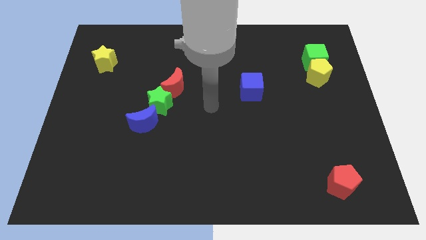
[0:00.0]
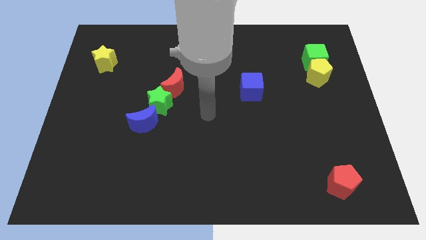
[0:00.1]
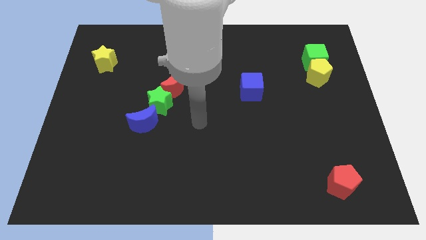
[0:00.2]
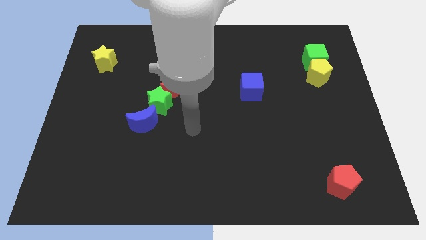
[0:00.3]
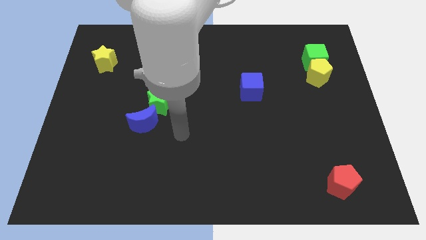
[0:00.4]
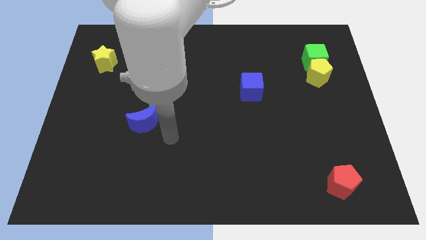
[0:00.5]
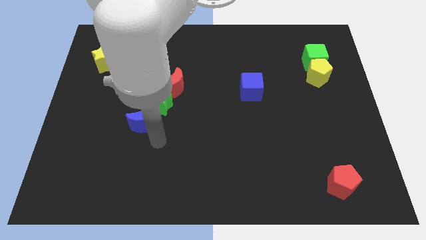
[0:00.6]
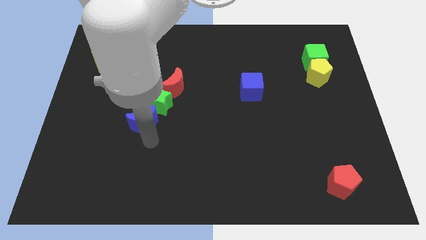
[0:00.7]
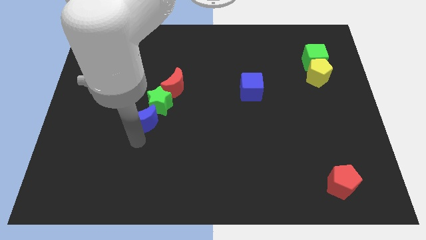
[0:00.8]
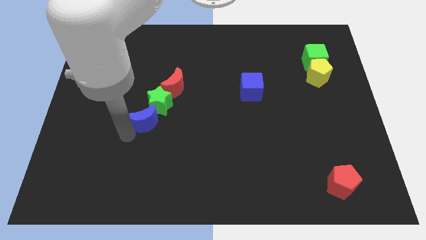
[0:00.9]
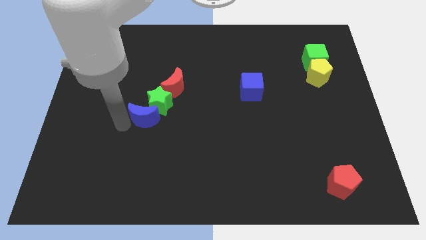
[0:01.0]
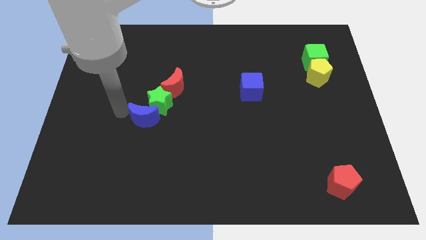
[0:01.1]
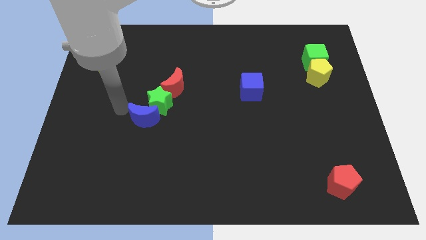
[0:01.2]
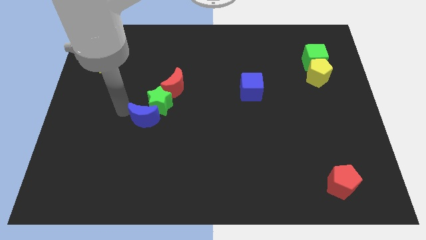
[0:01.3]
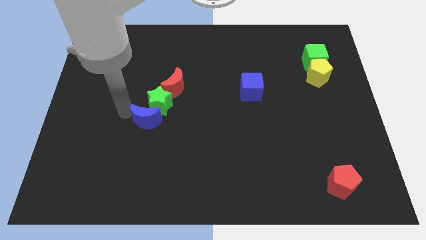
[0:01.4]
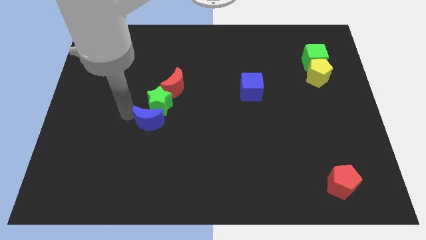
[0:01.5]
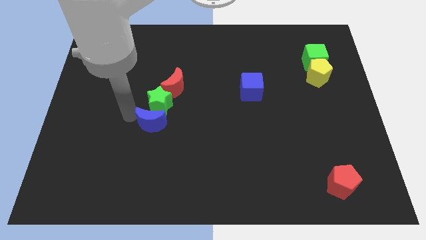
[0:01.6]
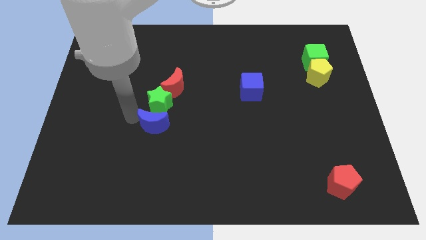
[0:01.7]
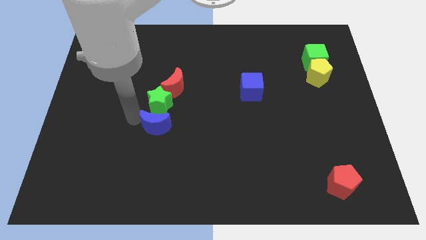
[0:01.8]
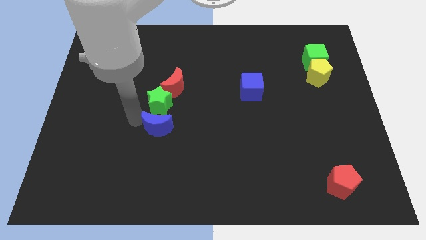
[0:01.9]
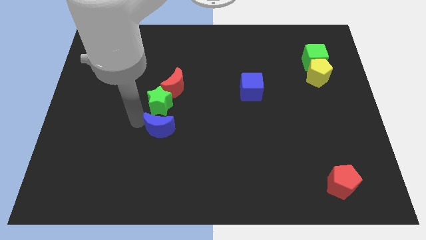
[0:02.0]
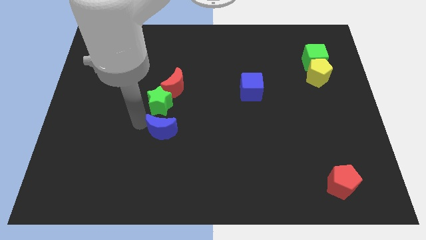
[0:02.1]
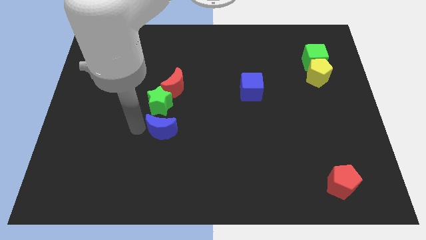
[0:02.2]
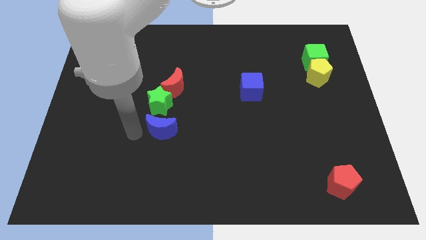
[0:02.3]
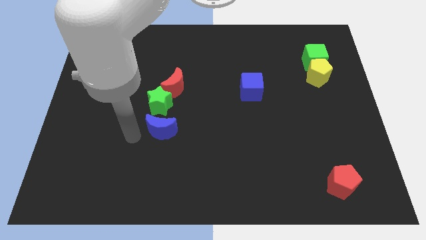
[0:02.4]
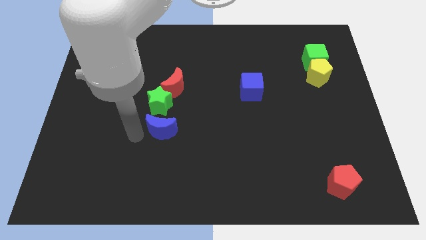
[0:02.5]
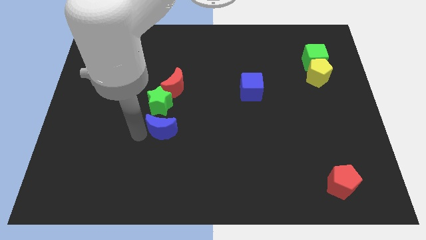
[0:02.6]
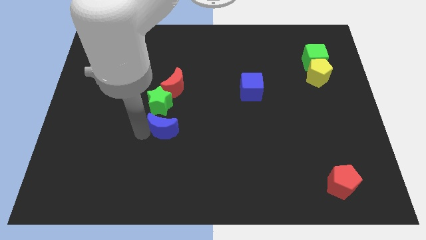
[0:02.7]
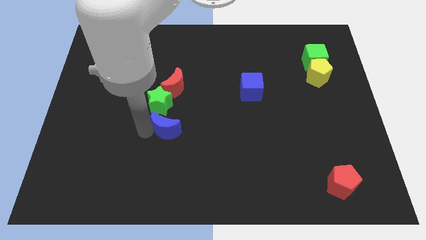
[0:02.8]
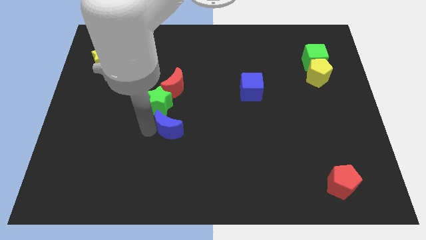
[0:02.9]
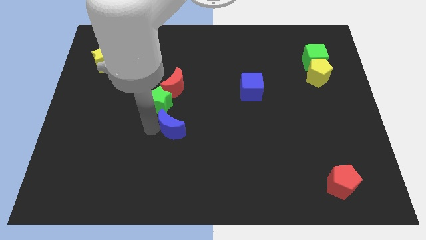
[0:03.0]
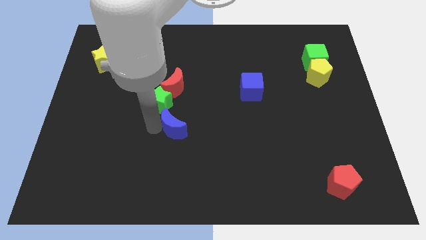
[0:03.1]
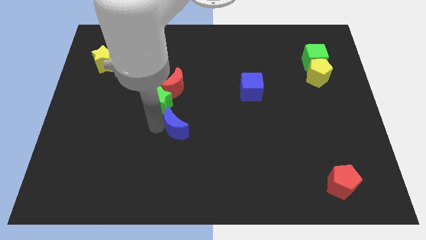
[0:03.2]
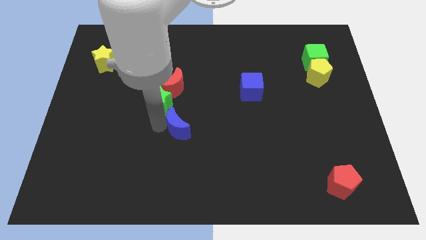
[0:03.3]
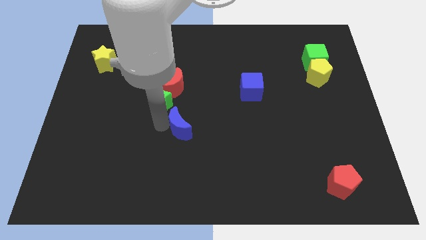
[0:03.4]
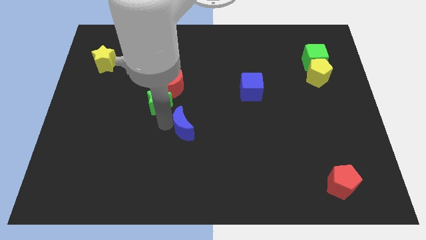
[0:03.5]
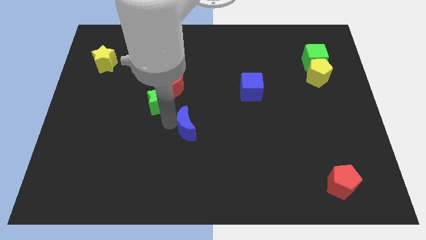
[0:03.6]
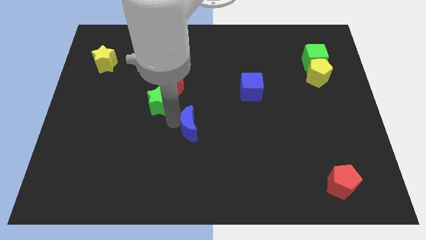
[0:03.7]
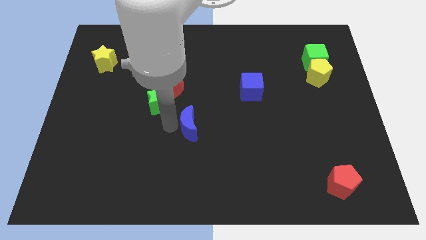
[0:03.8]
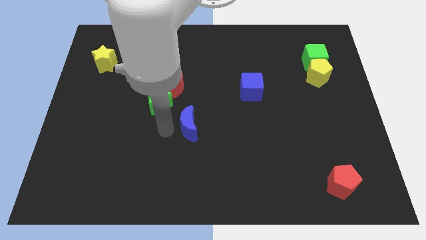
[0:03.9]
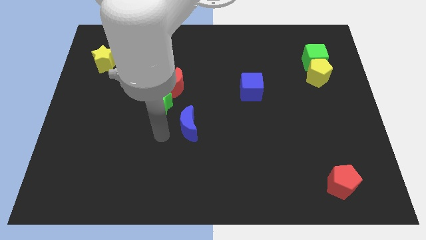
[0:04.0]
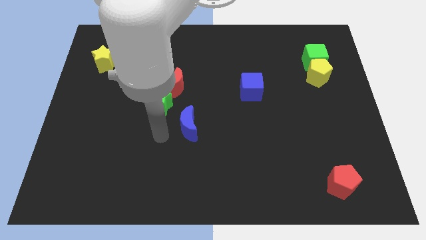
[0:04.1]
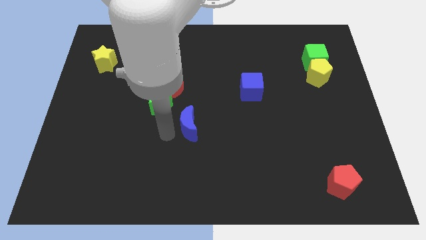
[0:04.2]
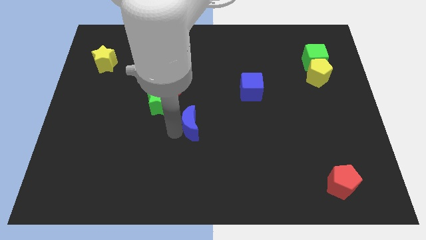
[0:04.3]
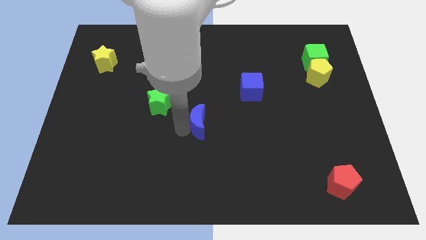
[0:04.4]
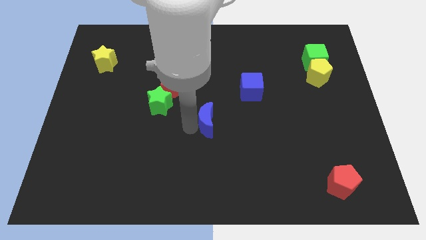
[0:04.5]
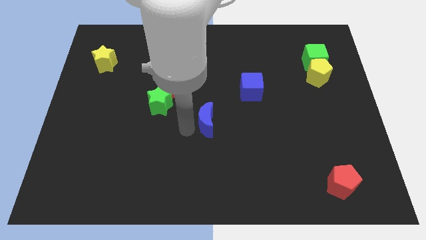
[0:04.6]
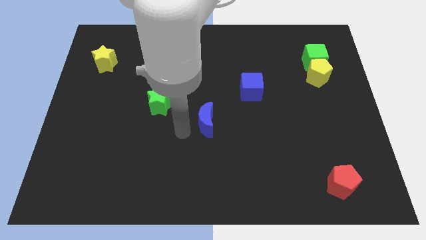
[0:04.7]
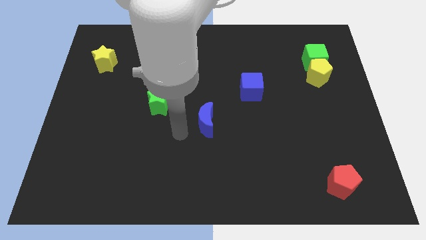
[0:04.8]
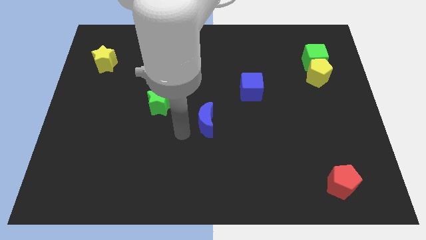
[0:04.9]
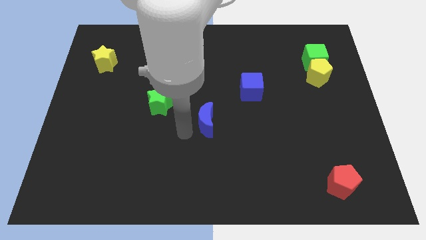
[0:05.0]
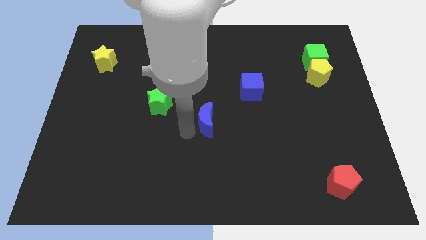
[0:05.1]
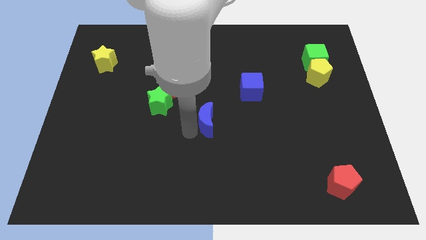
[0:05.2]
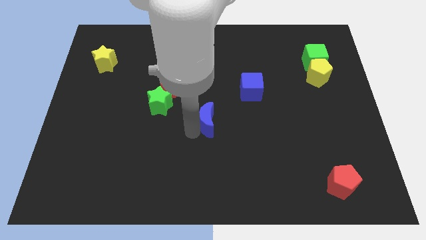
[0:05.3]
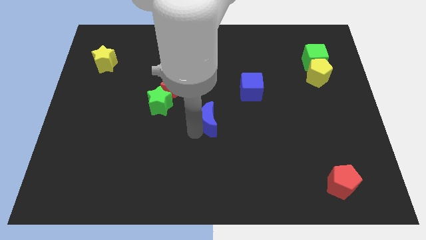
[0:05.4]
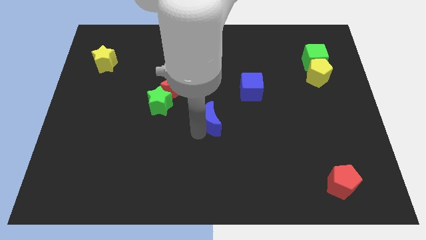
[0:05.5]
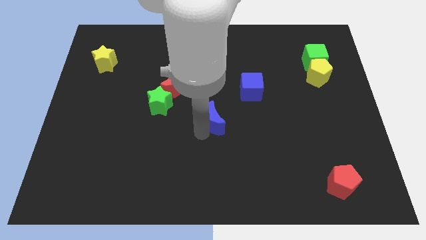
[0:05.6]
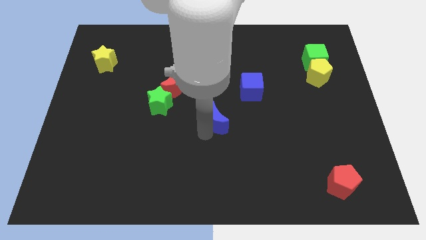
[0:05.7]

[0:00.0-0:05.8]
move the blue moon diagonally down and to the left of the blue cube

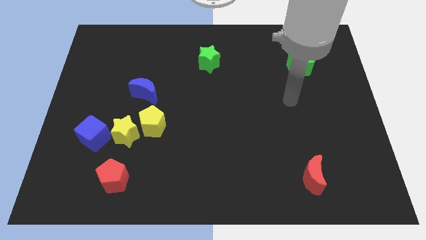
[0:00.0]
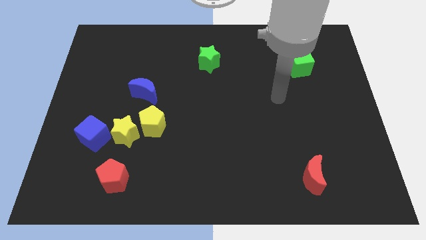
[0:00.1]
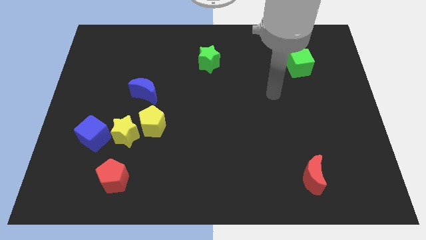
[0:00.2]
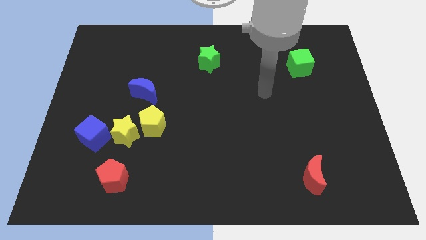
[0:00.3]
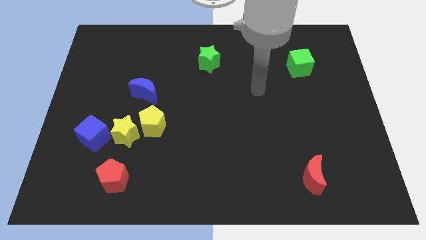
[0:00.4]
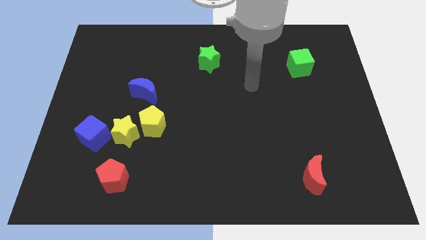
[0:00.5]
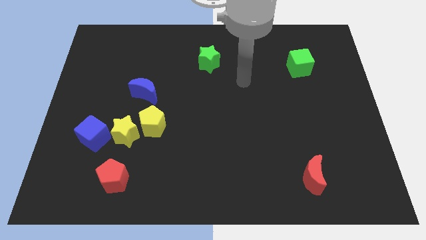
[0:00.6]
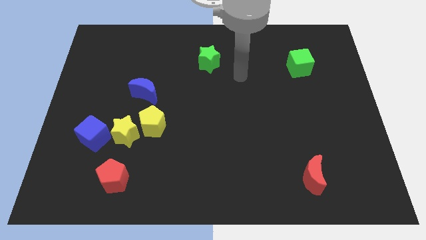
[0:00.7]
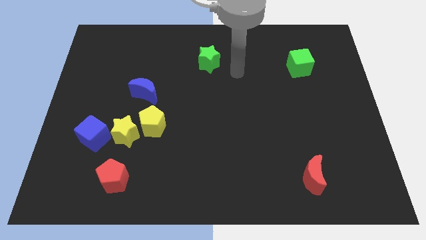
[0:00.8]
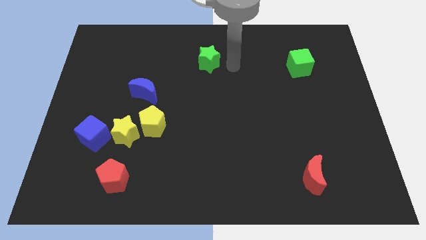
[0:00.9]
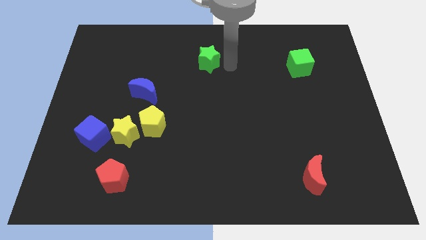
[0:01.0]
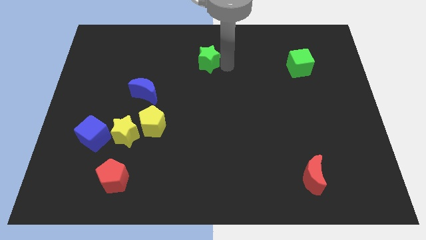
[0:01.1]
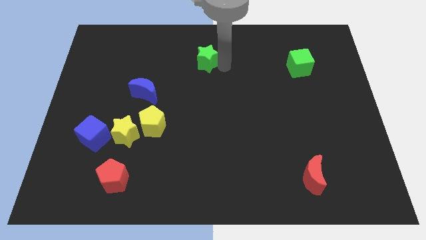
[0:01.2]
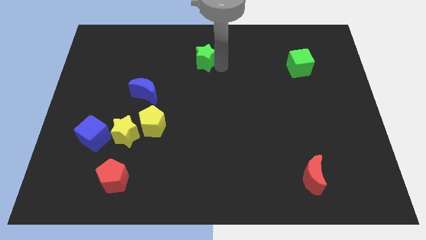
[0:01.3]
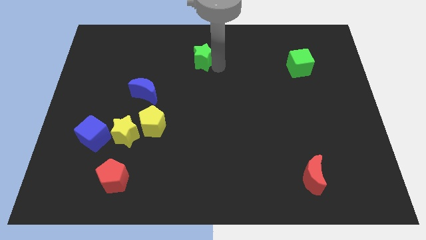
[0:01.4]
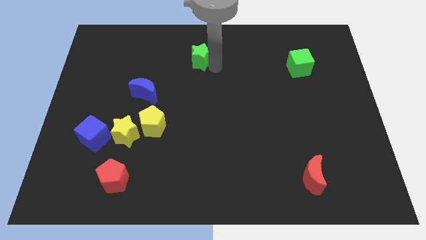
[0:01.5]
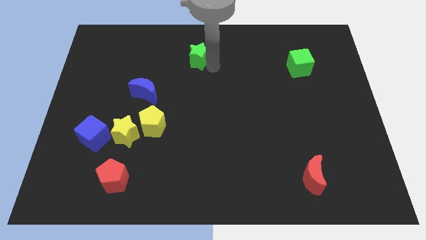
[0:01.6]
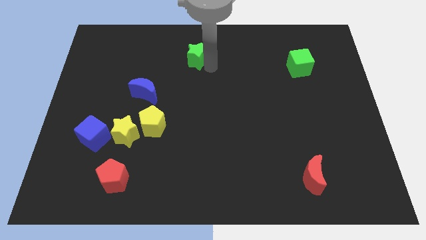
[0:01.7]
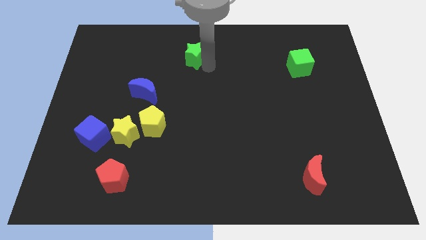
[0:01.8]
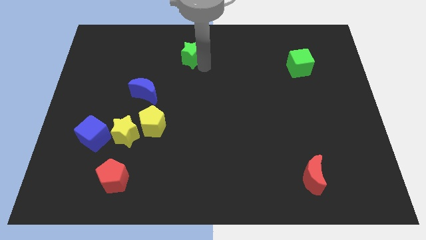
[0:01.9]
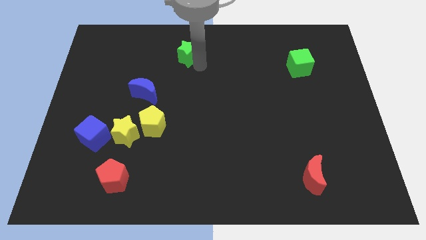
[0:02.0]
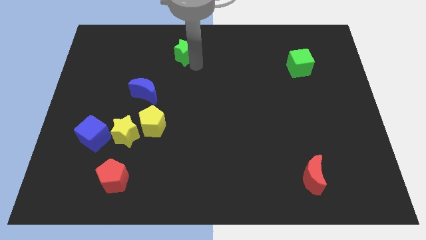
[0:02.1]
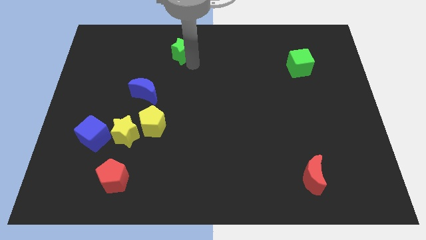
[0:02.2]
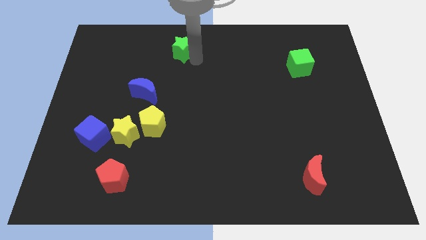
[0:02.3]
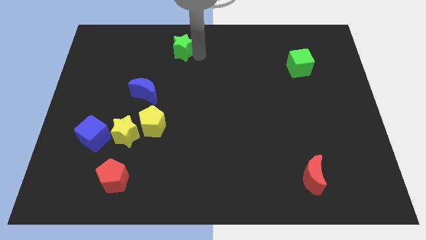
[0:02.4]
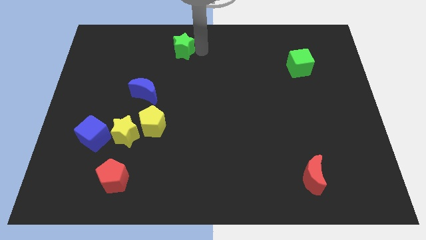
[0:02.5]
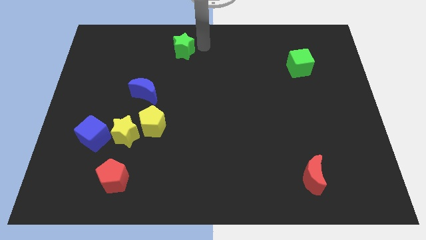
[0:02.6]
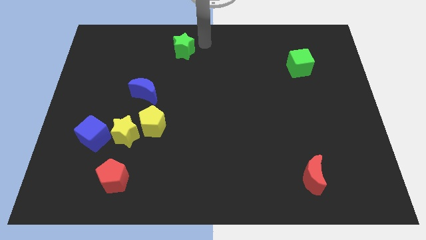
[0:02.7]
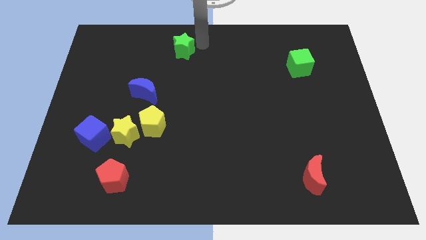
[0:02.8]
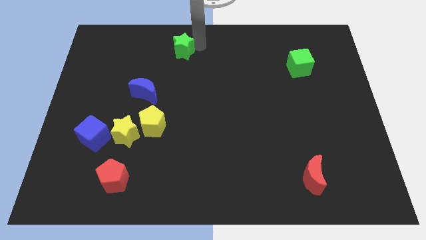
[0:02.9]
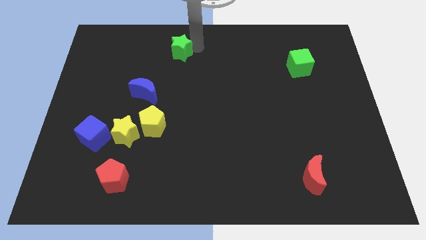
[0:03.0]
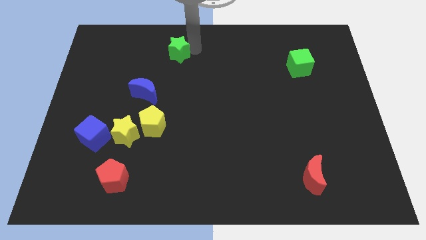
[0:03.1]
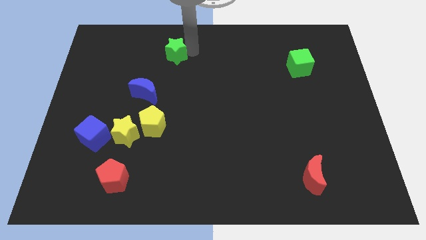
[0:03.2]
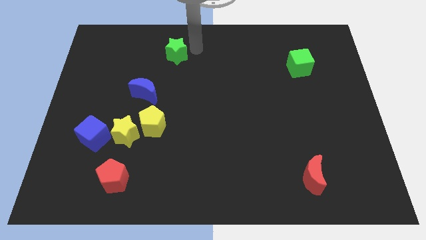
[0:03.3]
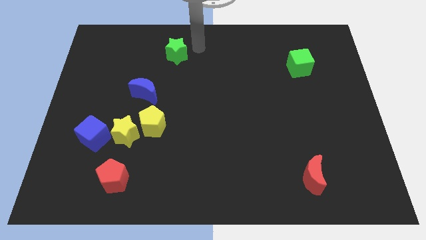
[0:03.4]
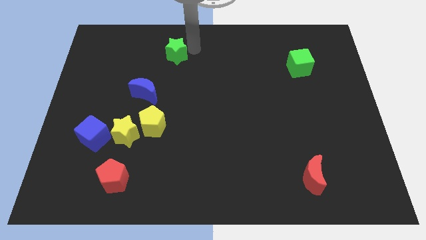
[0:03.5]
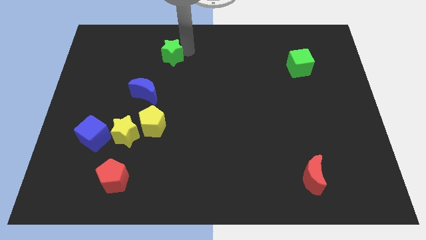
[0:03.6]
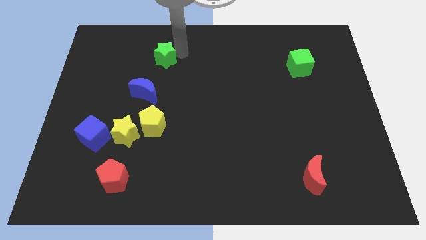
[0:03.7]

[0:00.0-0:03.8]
push the green star above the blue moon
